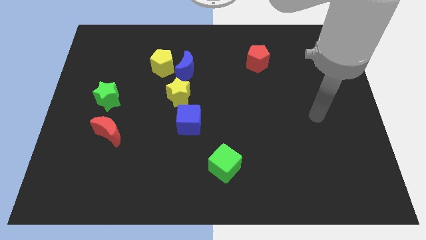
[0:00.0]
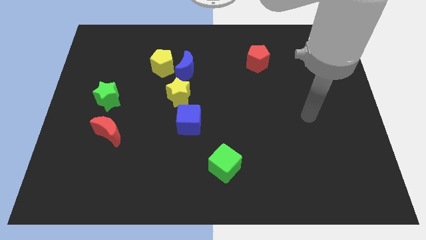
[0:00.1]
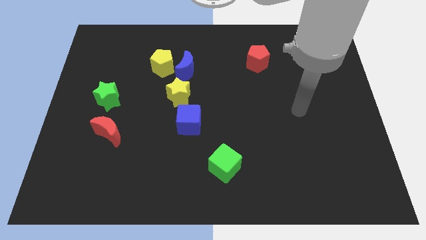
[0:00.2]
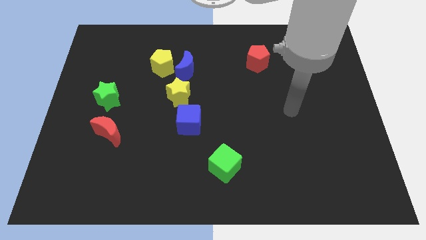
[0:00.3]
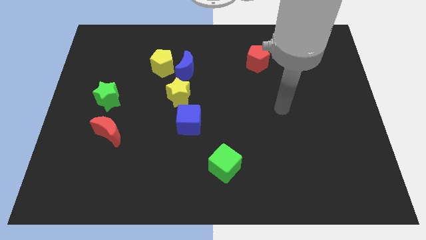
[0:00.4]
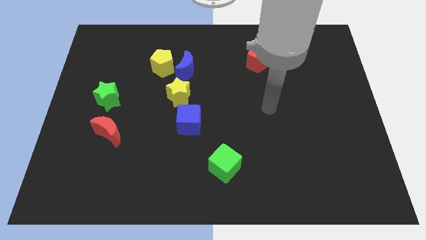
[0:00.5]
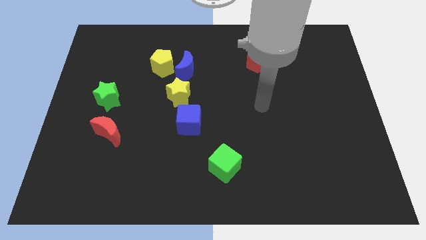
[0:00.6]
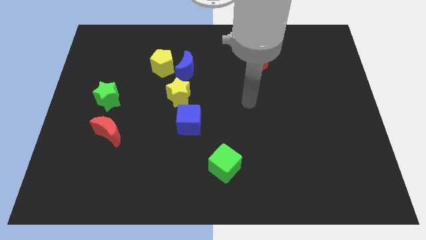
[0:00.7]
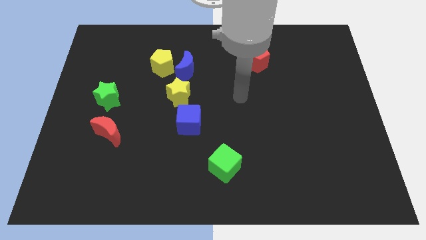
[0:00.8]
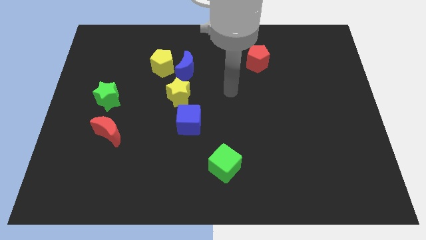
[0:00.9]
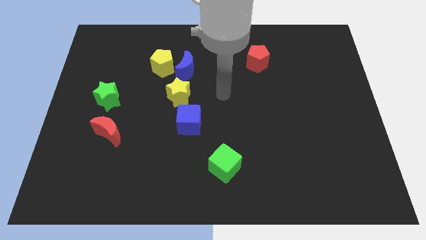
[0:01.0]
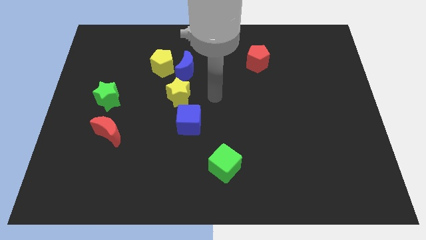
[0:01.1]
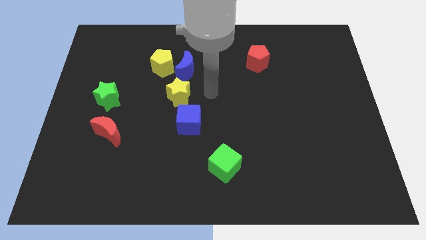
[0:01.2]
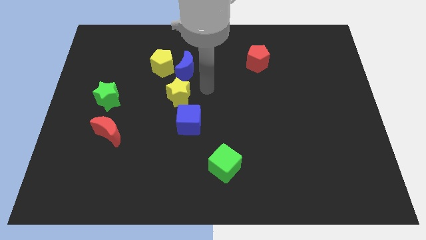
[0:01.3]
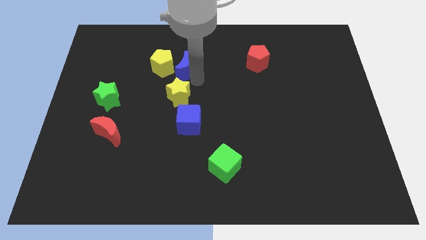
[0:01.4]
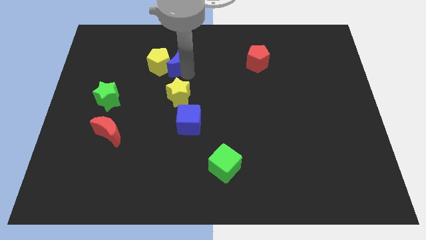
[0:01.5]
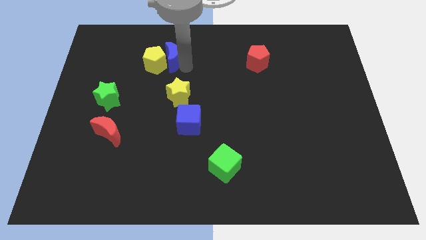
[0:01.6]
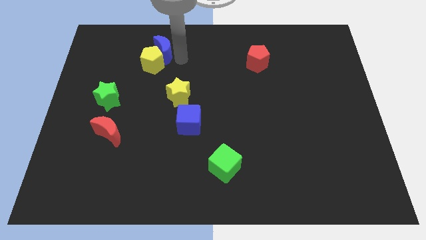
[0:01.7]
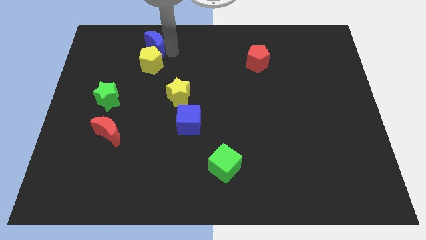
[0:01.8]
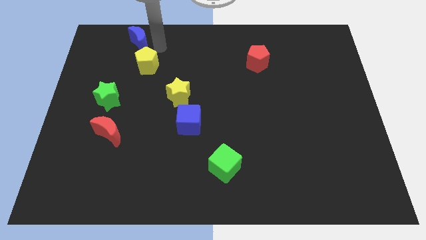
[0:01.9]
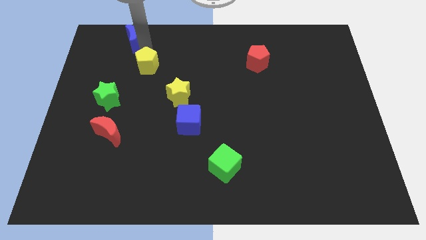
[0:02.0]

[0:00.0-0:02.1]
separate the yellow pentagon from the blue moon

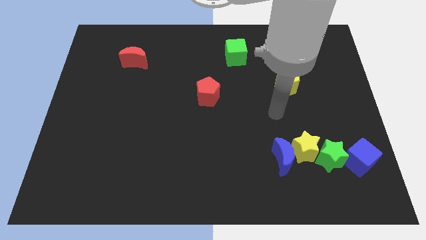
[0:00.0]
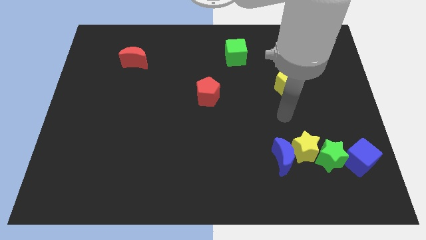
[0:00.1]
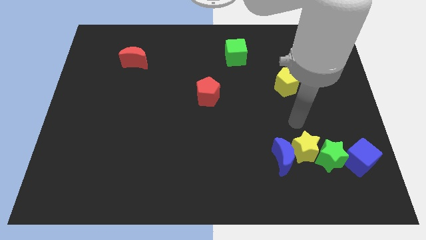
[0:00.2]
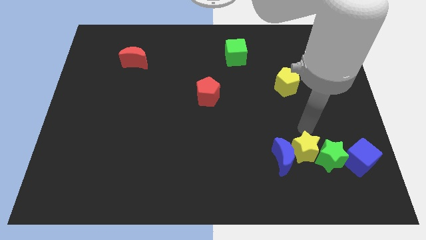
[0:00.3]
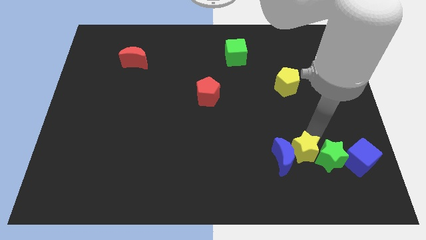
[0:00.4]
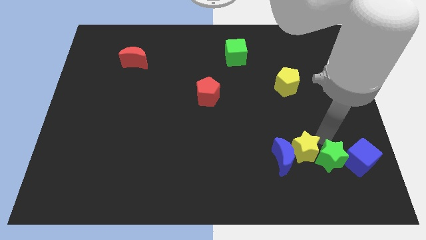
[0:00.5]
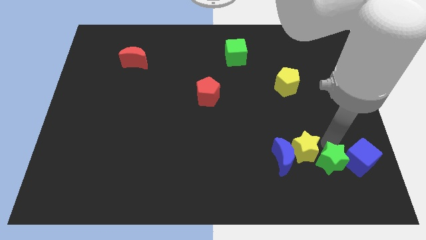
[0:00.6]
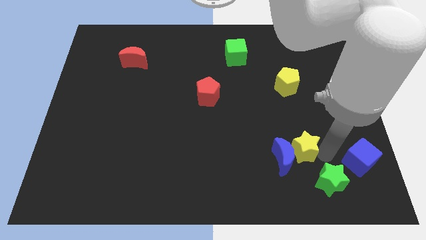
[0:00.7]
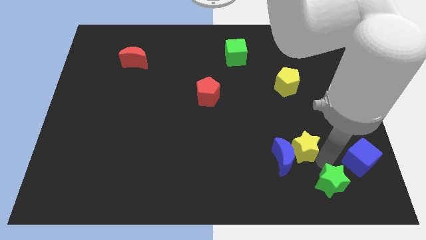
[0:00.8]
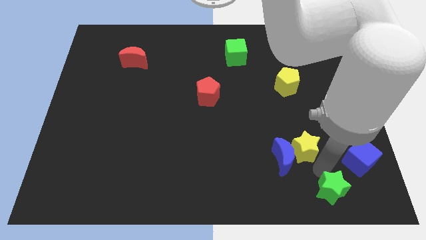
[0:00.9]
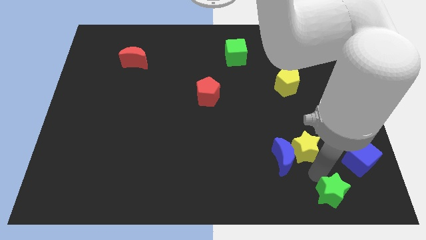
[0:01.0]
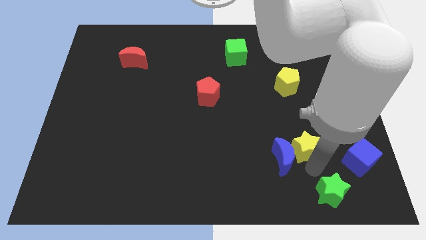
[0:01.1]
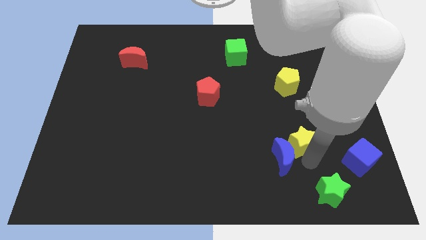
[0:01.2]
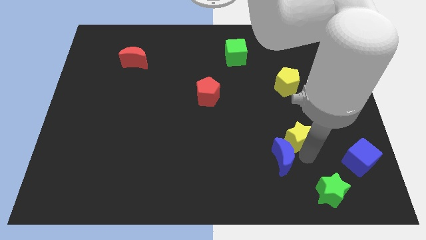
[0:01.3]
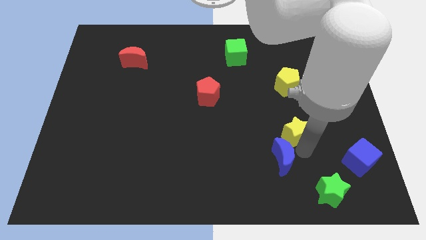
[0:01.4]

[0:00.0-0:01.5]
pull the yellow star apart from the blue moon and green star

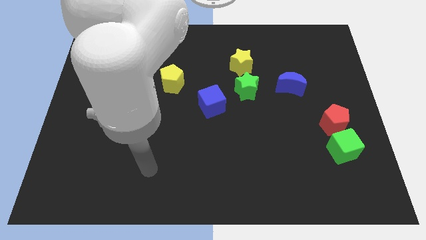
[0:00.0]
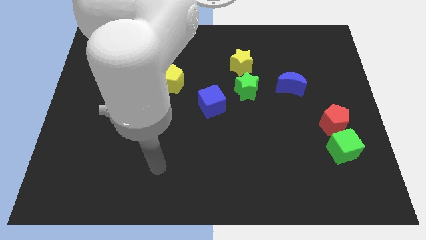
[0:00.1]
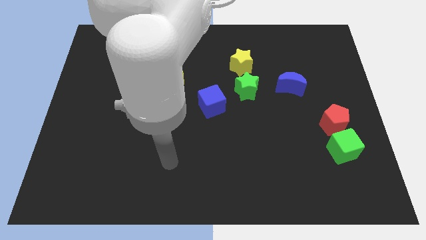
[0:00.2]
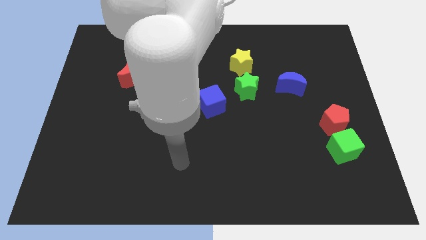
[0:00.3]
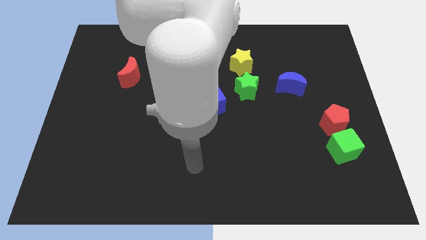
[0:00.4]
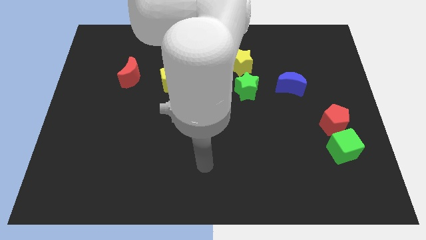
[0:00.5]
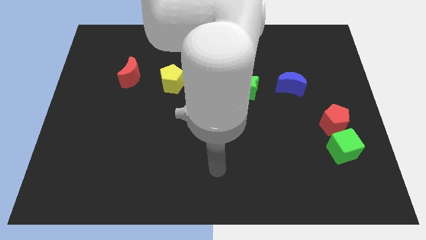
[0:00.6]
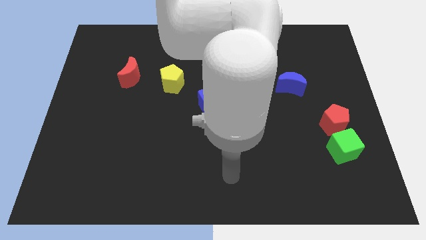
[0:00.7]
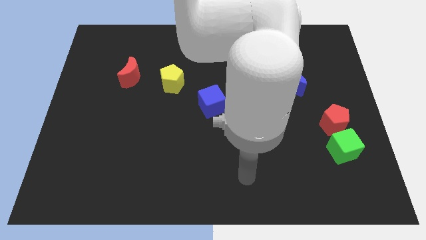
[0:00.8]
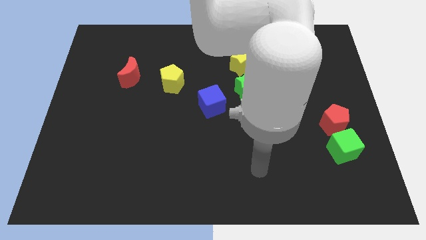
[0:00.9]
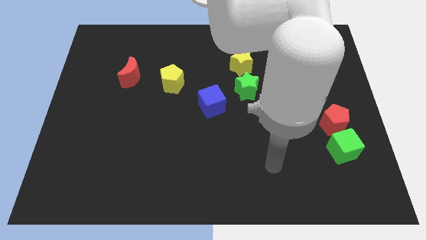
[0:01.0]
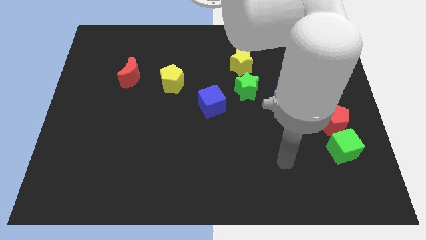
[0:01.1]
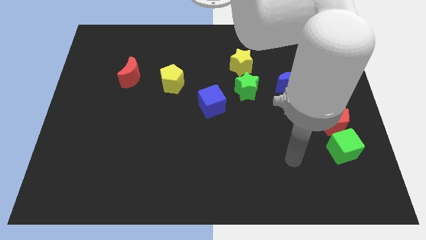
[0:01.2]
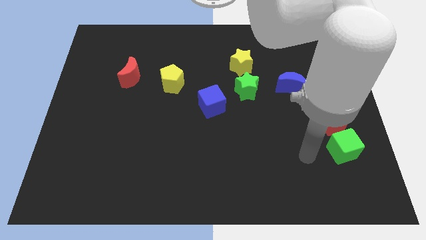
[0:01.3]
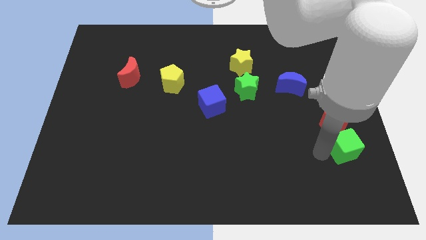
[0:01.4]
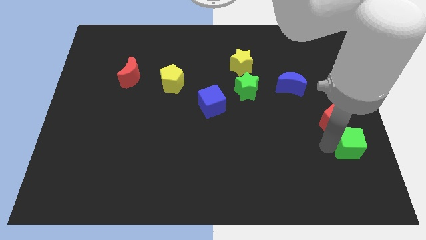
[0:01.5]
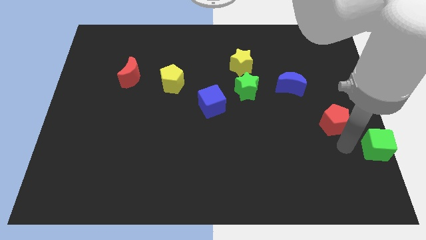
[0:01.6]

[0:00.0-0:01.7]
pull the red pentagon apart from the green cube

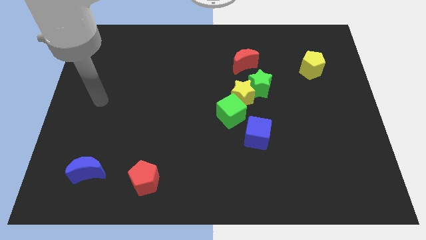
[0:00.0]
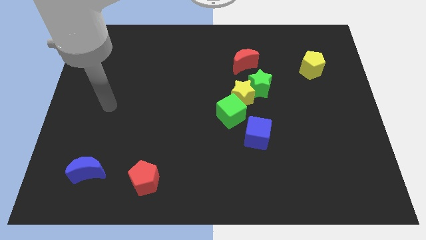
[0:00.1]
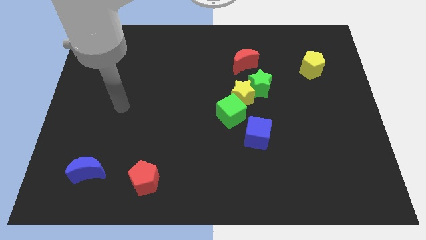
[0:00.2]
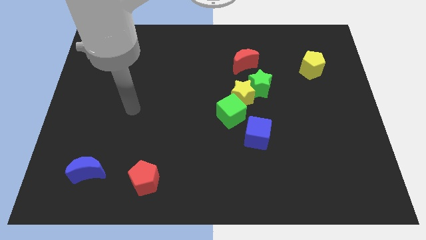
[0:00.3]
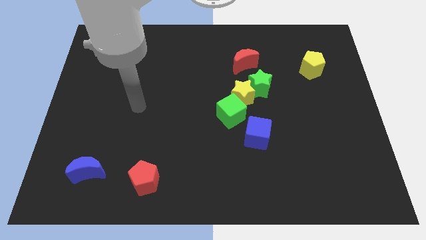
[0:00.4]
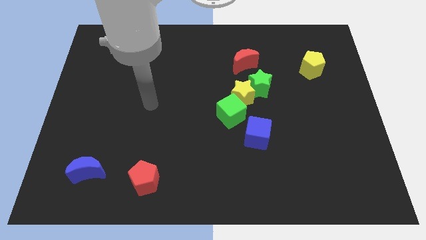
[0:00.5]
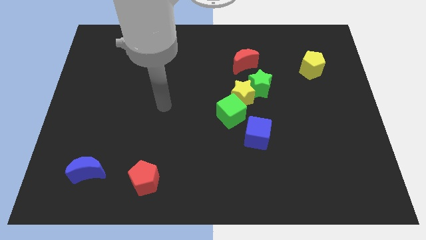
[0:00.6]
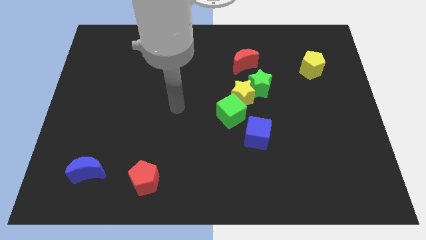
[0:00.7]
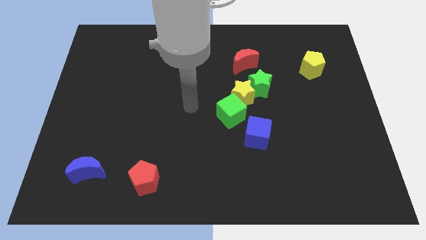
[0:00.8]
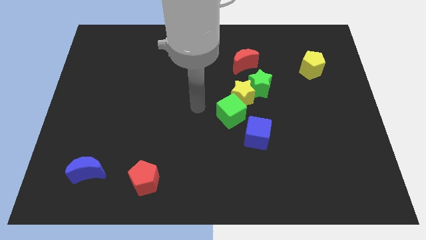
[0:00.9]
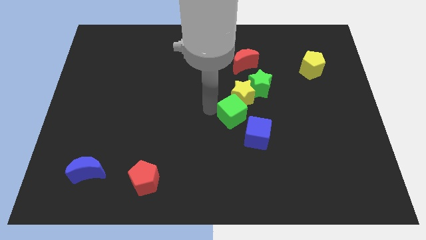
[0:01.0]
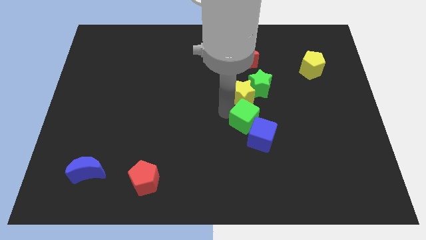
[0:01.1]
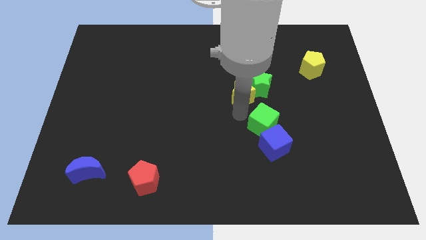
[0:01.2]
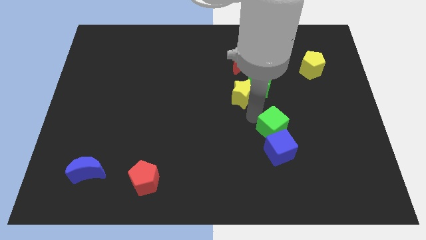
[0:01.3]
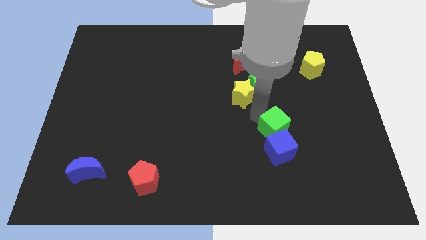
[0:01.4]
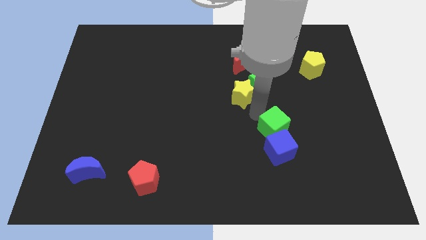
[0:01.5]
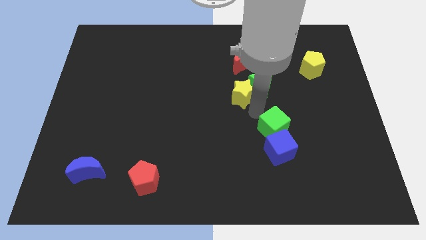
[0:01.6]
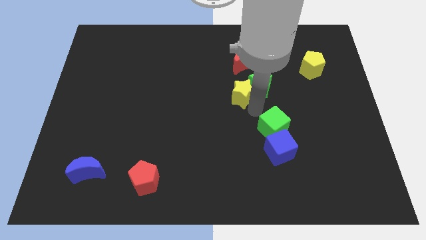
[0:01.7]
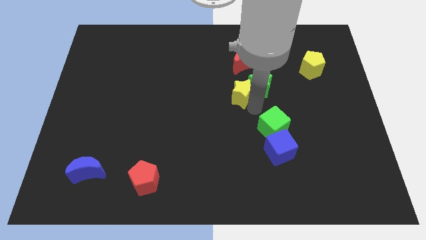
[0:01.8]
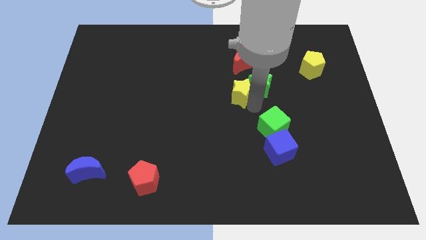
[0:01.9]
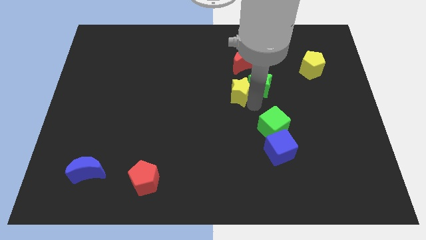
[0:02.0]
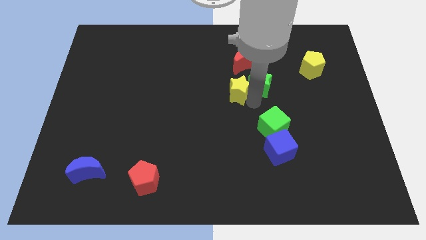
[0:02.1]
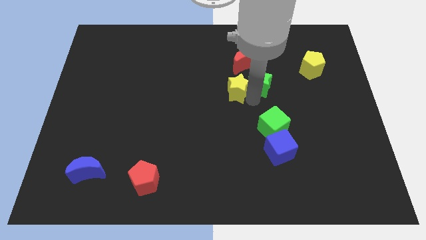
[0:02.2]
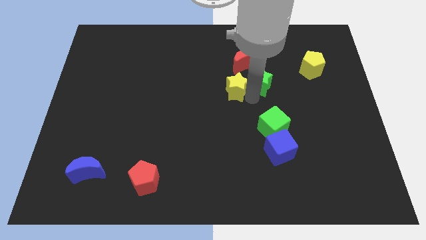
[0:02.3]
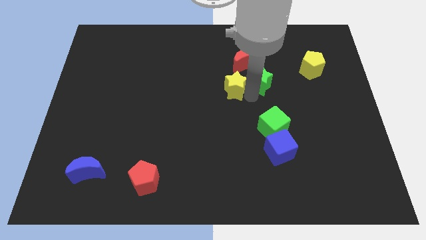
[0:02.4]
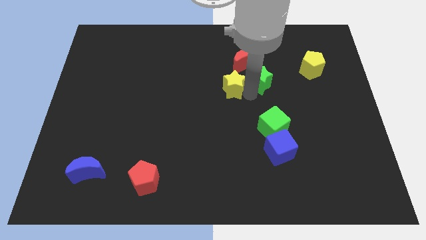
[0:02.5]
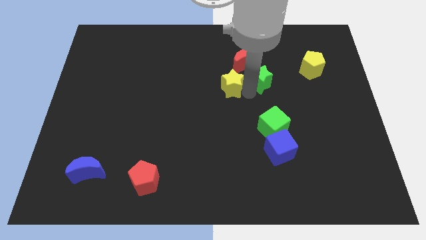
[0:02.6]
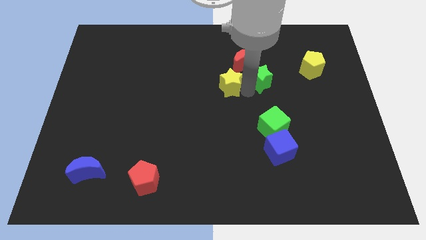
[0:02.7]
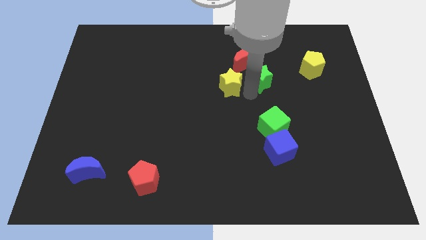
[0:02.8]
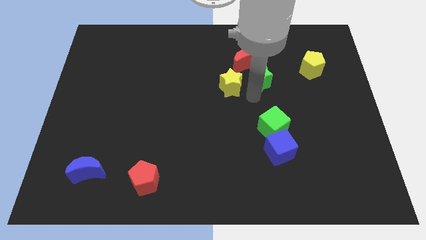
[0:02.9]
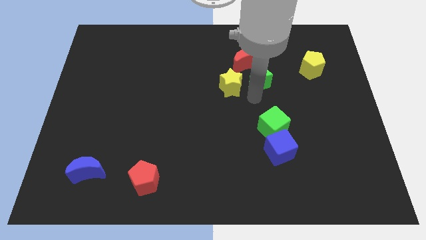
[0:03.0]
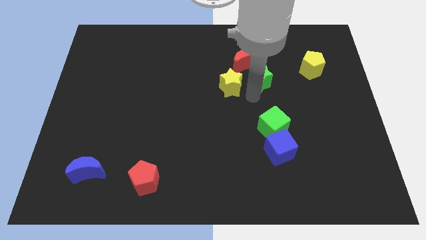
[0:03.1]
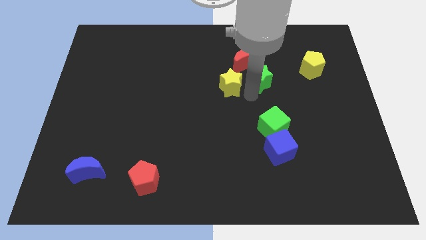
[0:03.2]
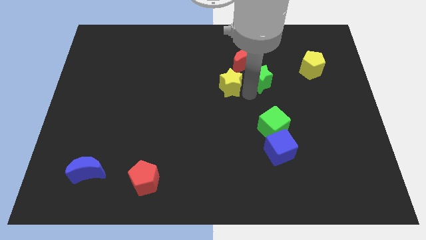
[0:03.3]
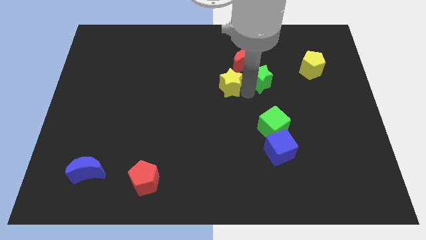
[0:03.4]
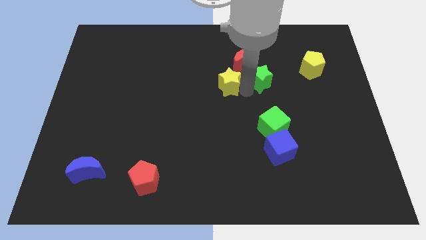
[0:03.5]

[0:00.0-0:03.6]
pull the yellow star apart from the green star and green cube

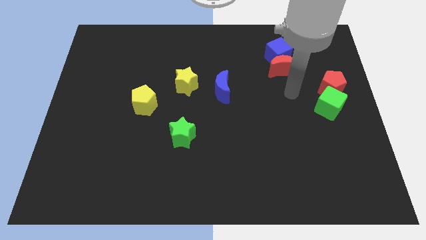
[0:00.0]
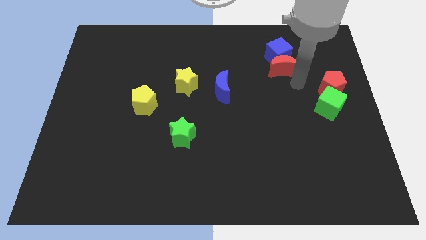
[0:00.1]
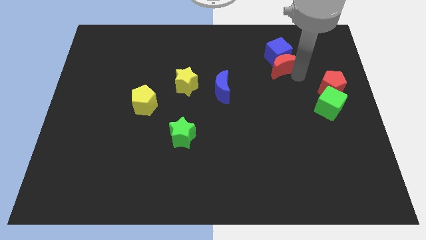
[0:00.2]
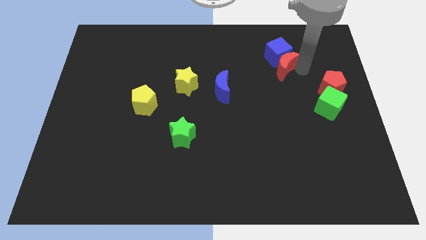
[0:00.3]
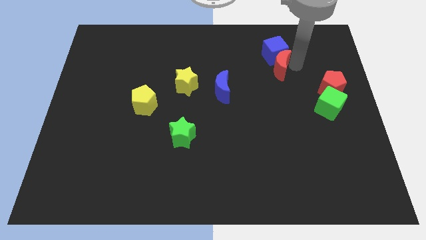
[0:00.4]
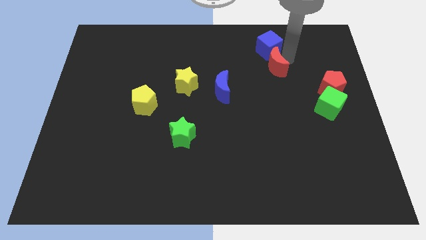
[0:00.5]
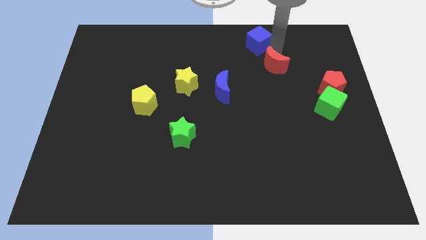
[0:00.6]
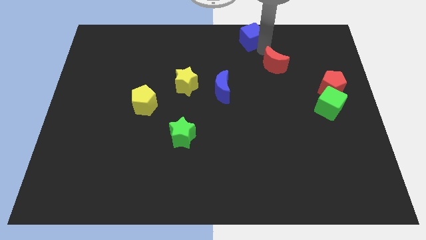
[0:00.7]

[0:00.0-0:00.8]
move the red moon away from the blue cube
